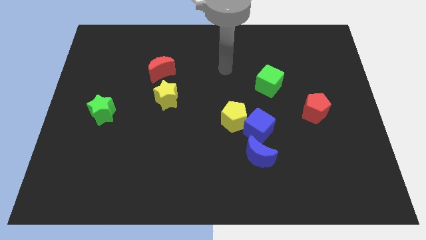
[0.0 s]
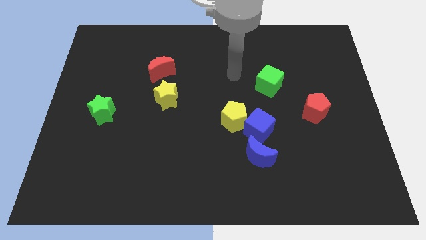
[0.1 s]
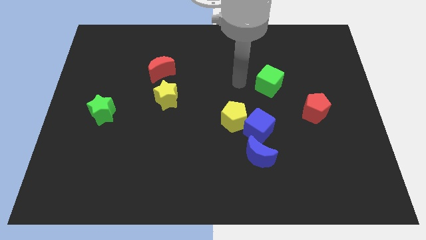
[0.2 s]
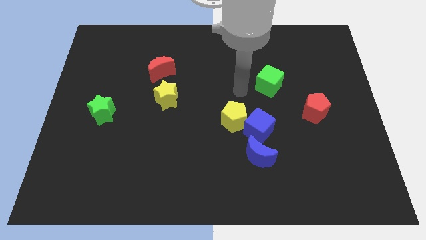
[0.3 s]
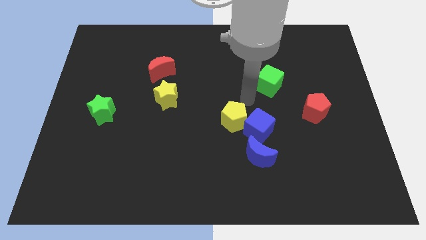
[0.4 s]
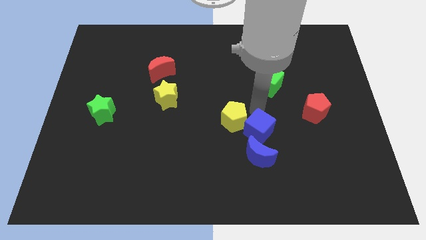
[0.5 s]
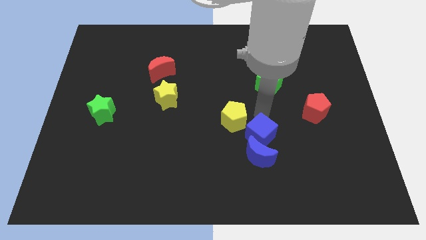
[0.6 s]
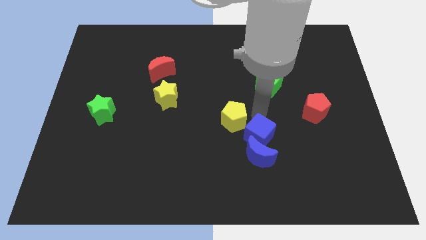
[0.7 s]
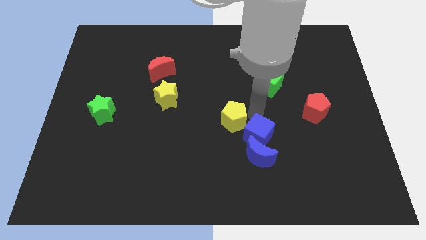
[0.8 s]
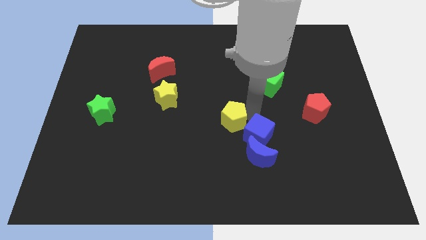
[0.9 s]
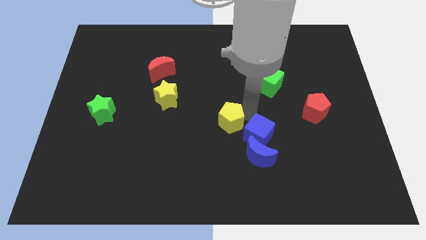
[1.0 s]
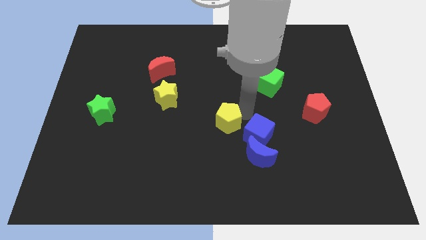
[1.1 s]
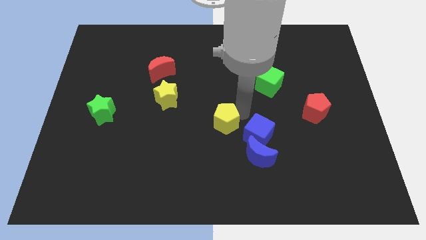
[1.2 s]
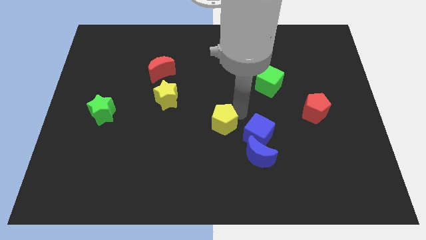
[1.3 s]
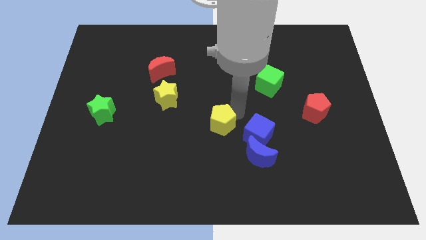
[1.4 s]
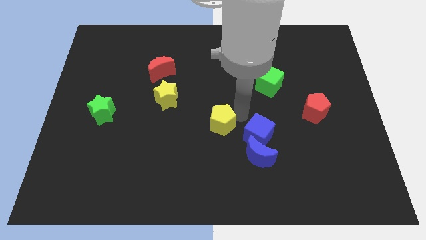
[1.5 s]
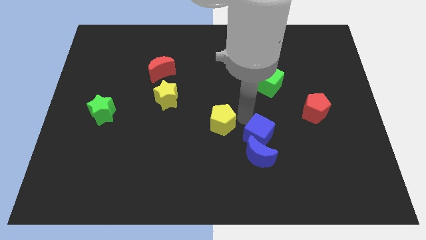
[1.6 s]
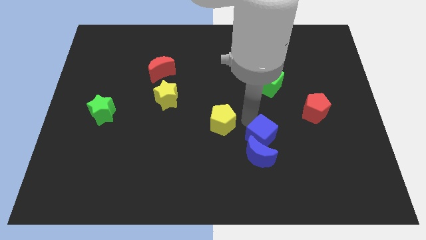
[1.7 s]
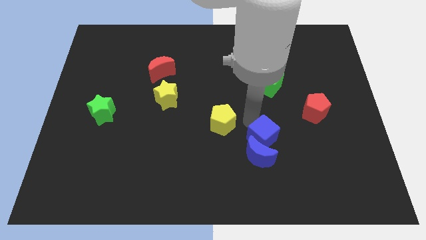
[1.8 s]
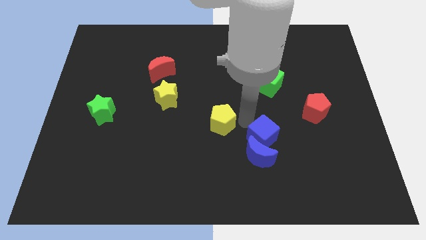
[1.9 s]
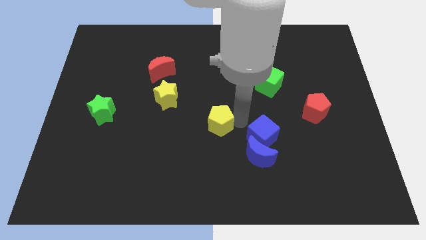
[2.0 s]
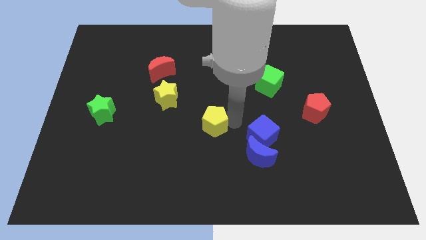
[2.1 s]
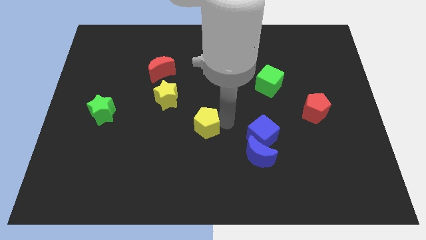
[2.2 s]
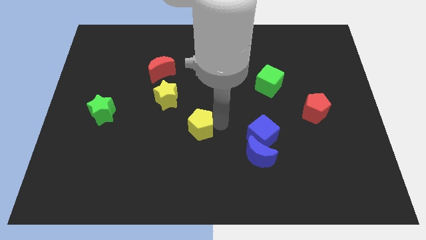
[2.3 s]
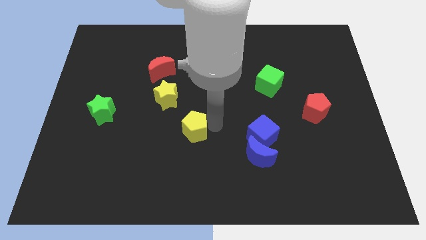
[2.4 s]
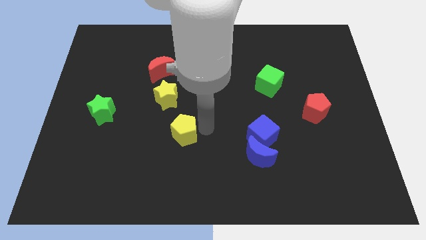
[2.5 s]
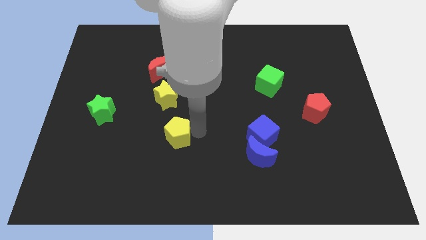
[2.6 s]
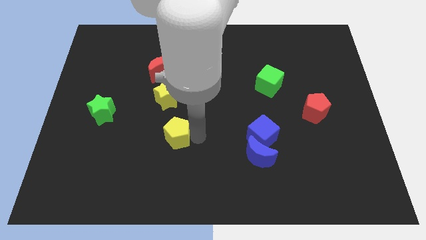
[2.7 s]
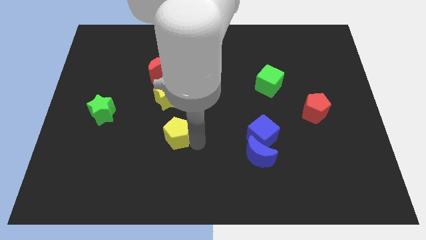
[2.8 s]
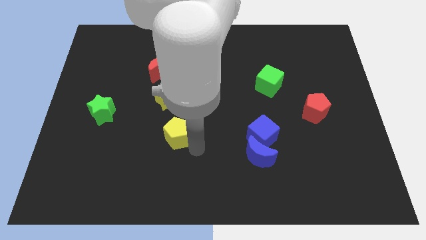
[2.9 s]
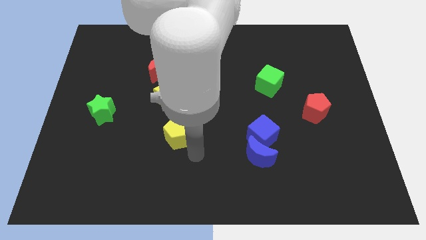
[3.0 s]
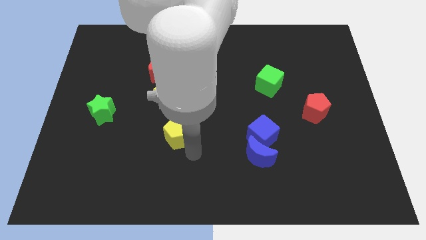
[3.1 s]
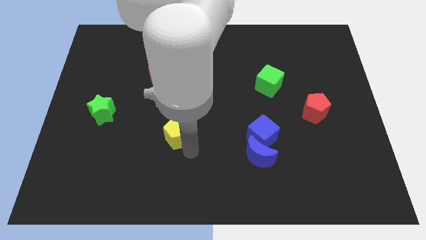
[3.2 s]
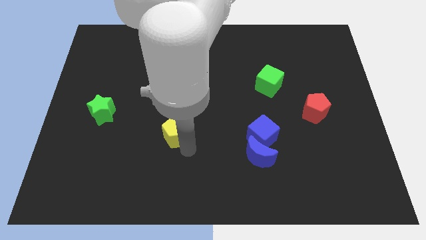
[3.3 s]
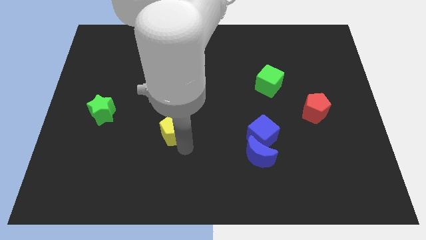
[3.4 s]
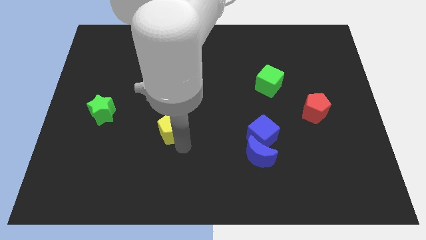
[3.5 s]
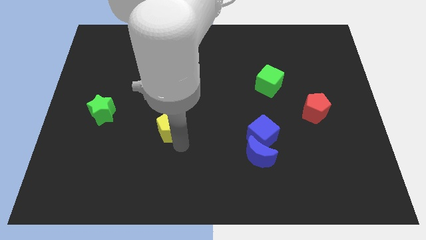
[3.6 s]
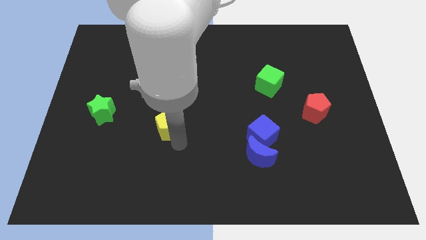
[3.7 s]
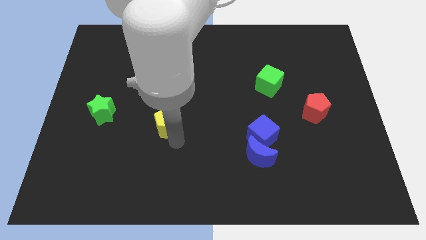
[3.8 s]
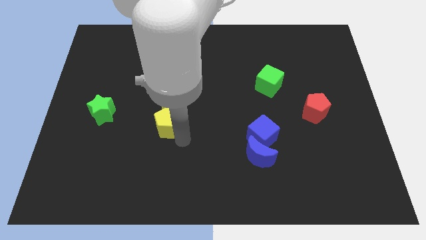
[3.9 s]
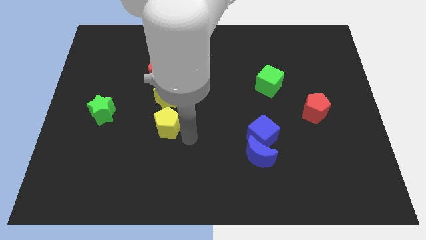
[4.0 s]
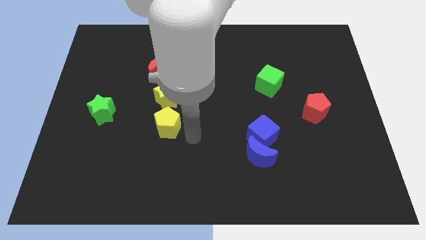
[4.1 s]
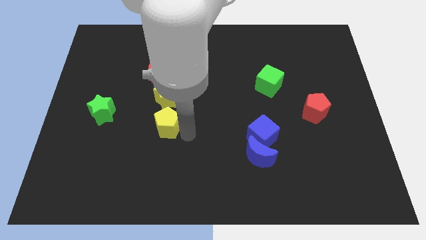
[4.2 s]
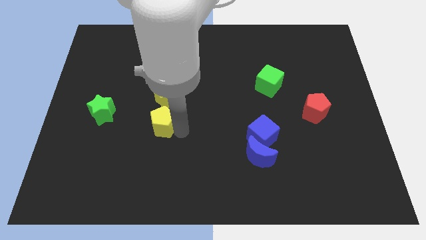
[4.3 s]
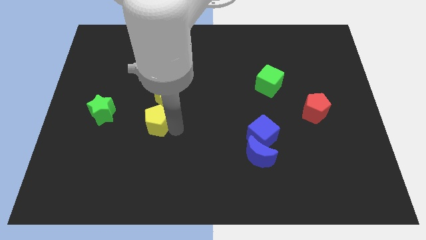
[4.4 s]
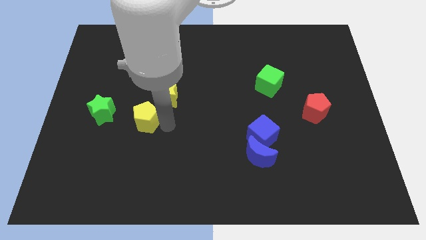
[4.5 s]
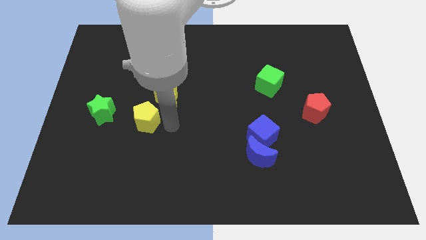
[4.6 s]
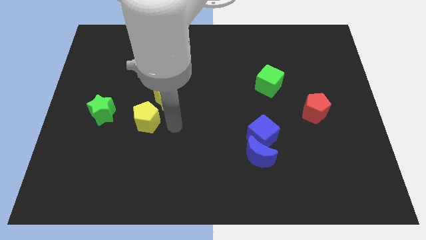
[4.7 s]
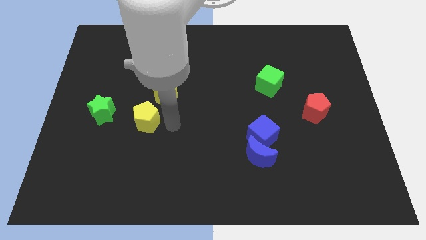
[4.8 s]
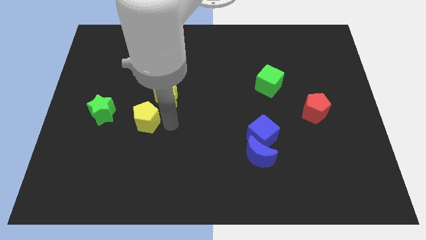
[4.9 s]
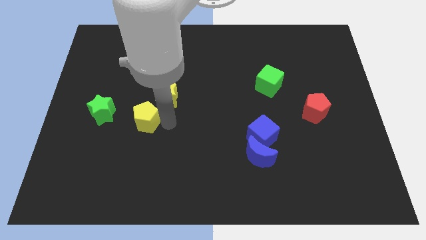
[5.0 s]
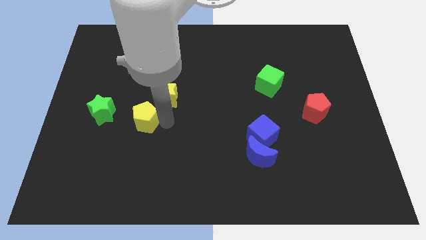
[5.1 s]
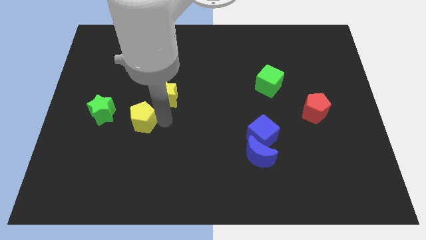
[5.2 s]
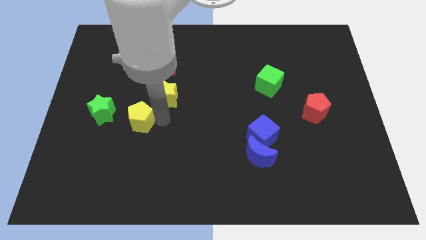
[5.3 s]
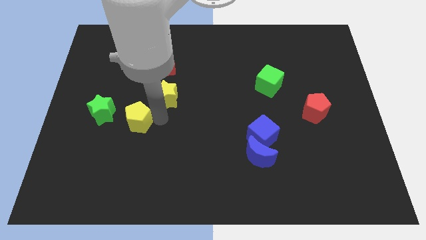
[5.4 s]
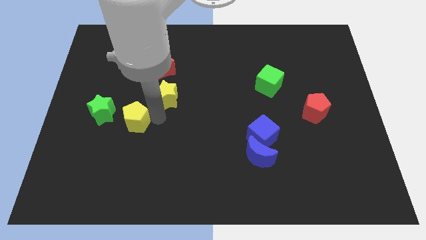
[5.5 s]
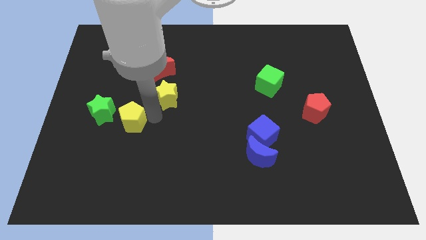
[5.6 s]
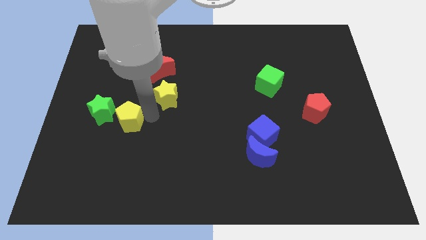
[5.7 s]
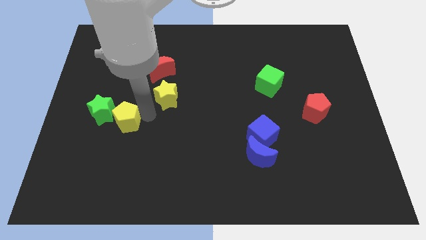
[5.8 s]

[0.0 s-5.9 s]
put the yellow pentagon close to the green star

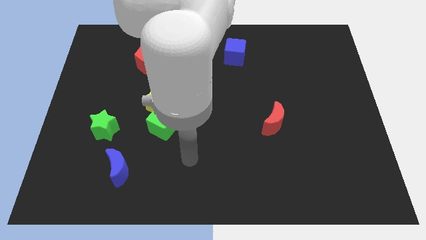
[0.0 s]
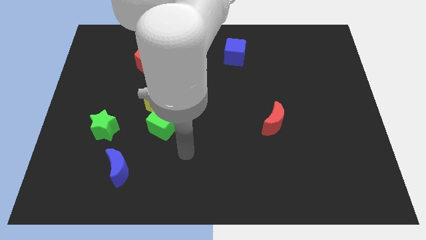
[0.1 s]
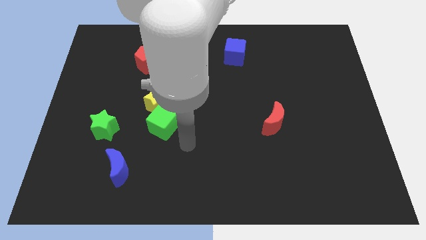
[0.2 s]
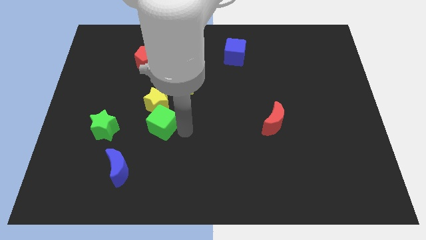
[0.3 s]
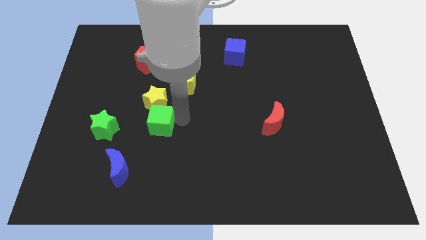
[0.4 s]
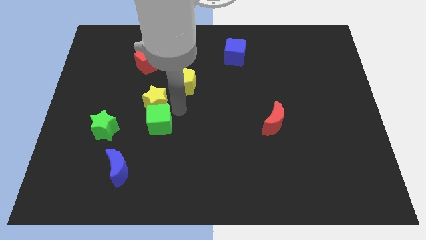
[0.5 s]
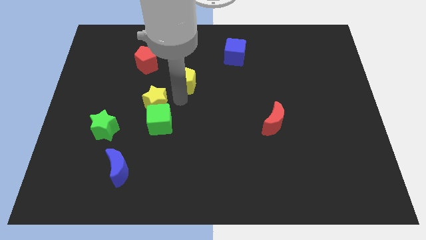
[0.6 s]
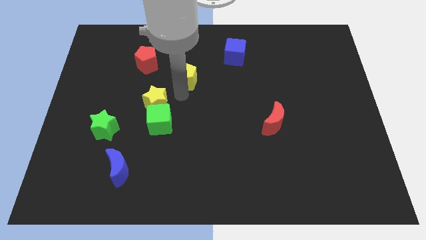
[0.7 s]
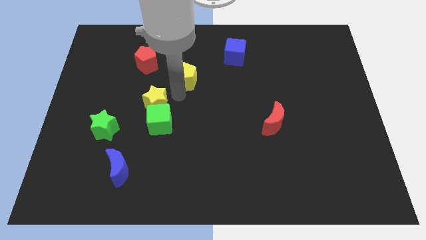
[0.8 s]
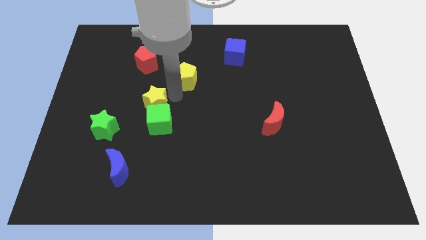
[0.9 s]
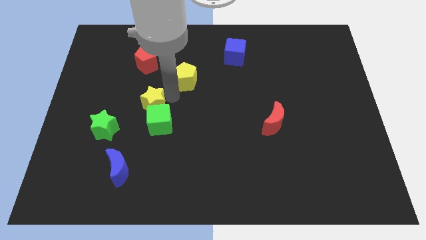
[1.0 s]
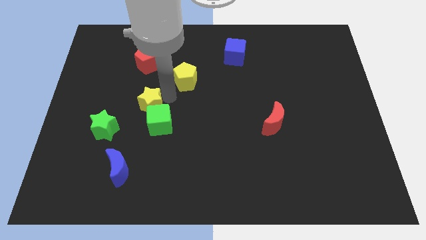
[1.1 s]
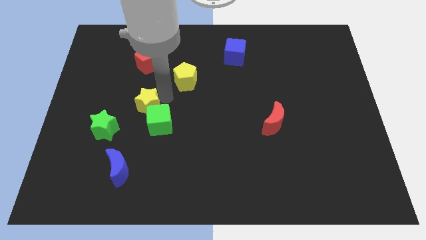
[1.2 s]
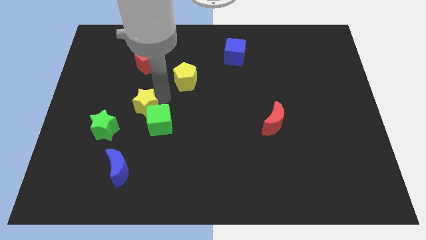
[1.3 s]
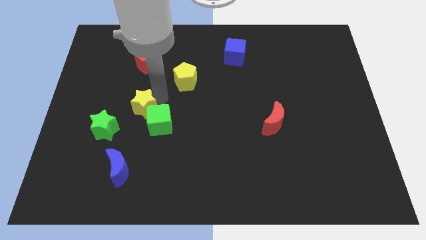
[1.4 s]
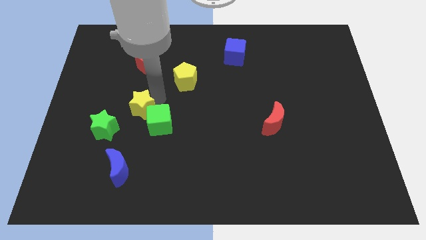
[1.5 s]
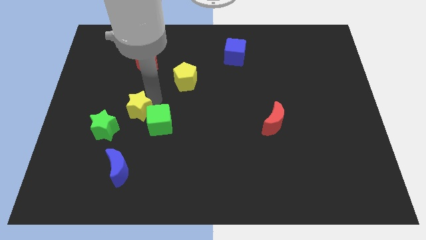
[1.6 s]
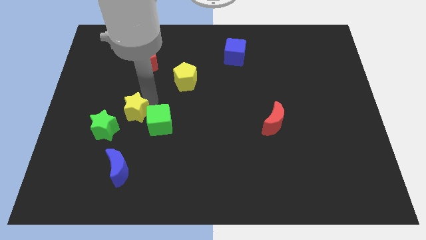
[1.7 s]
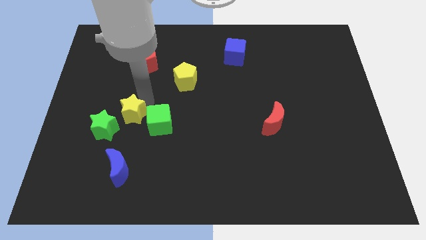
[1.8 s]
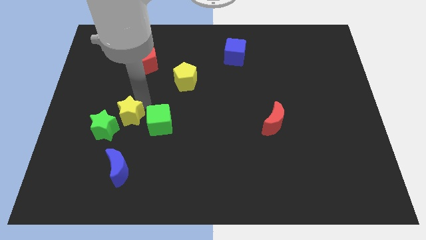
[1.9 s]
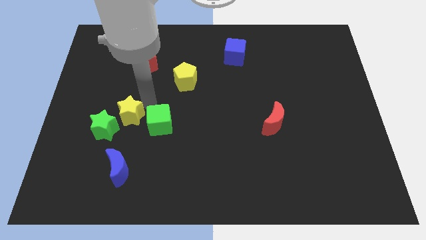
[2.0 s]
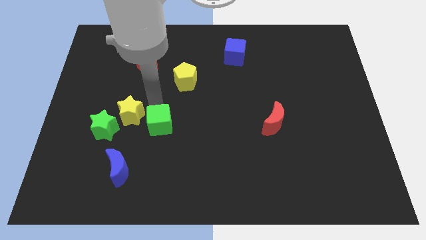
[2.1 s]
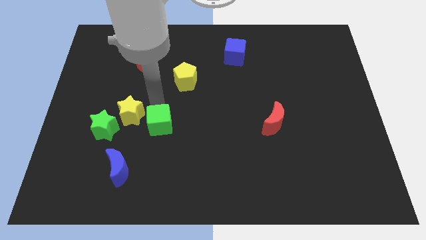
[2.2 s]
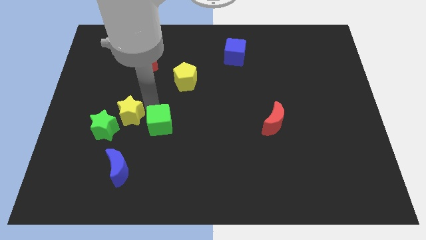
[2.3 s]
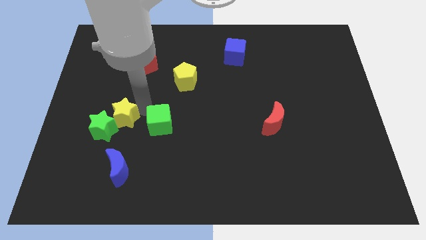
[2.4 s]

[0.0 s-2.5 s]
push the yellow star towards the green star
